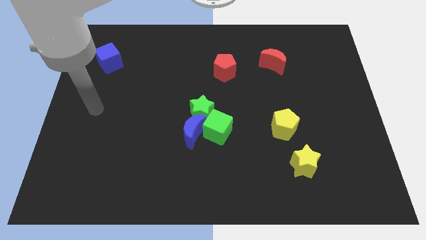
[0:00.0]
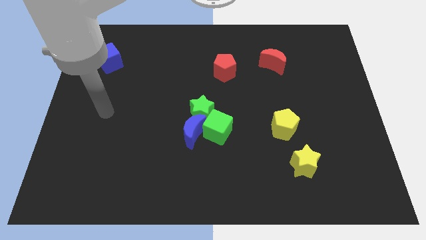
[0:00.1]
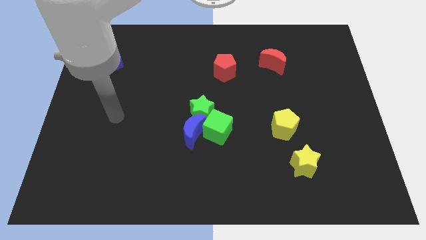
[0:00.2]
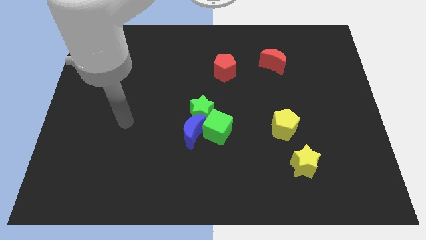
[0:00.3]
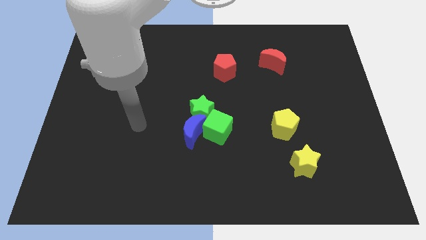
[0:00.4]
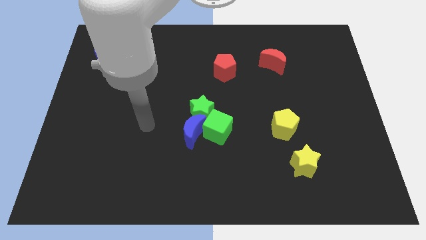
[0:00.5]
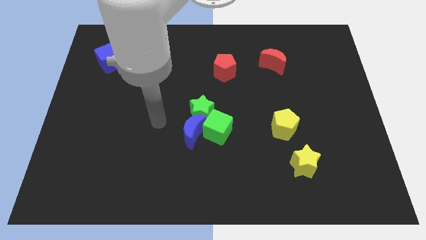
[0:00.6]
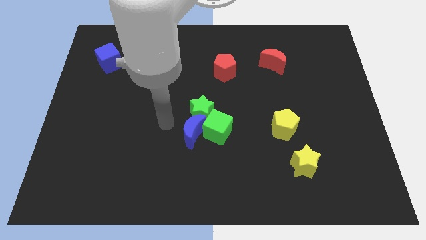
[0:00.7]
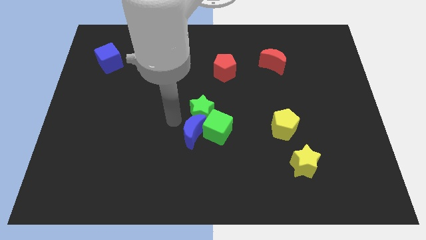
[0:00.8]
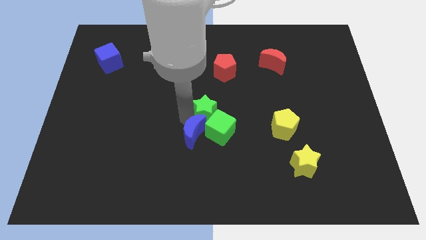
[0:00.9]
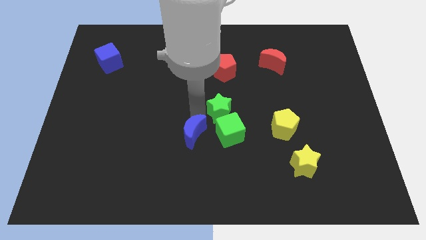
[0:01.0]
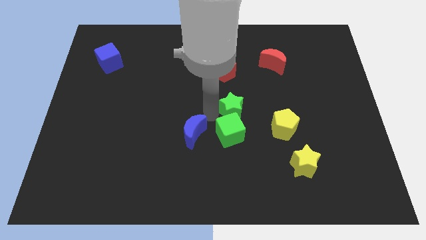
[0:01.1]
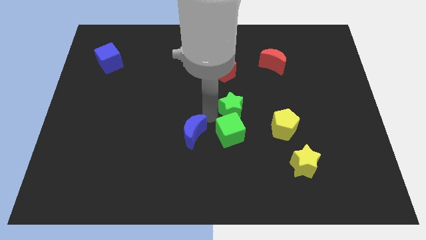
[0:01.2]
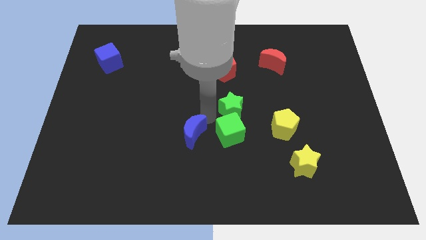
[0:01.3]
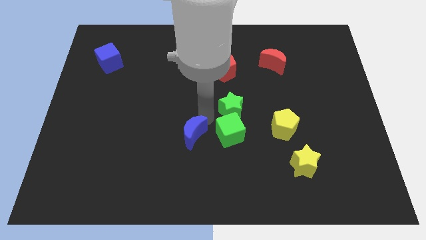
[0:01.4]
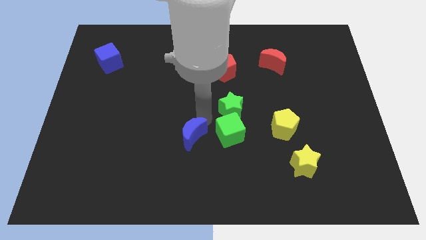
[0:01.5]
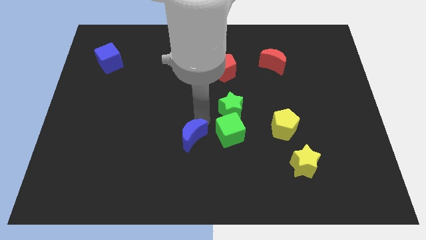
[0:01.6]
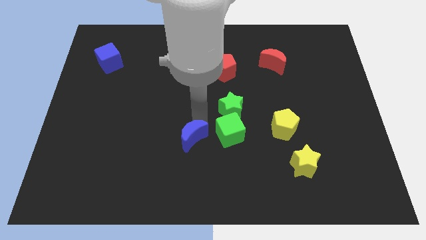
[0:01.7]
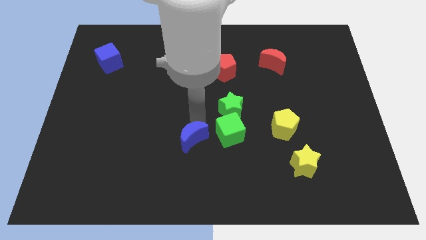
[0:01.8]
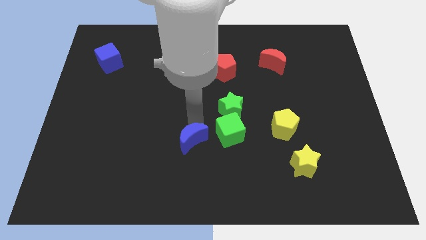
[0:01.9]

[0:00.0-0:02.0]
pull the blue moon apart from the green star and green cube

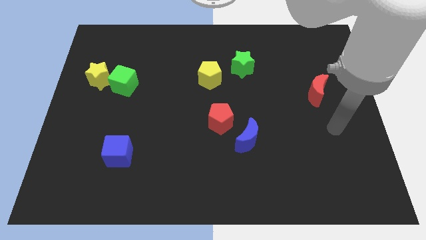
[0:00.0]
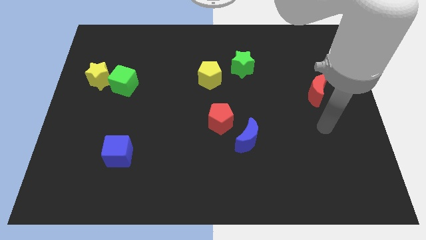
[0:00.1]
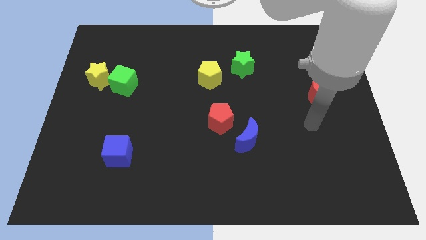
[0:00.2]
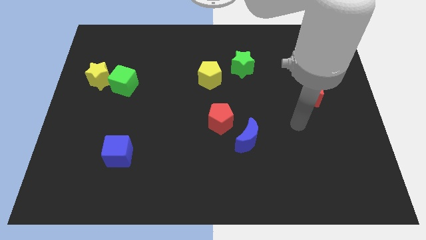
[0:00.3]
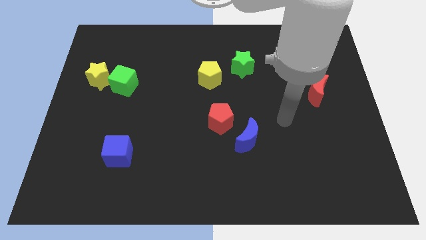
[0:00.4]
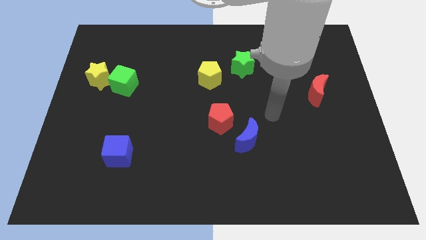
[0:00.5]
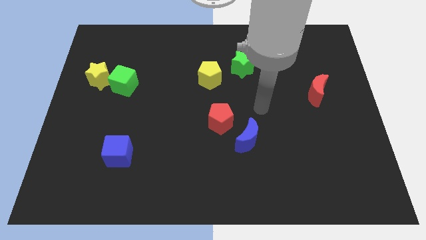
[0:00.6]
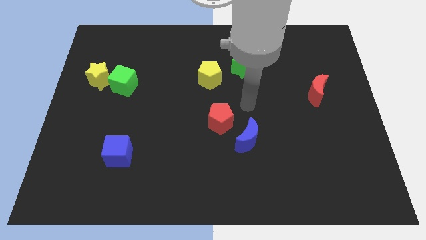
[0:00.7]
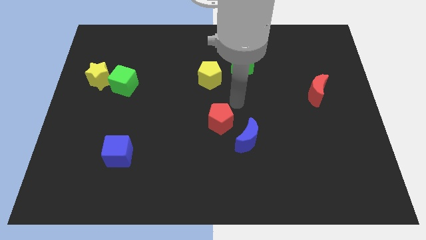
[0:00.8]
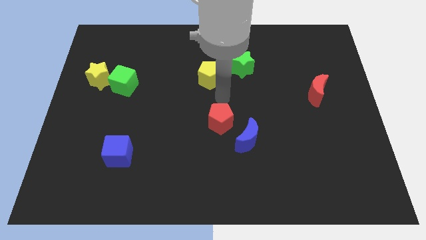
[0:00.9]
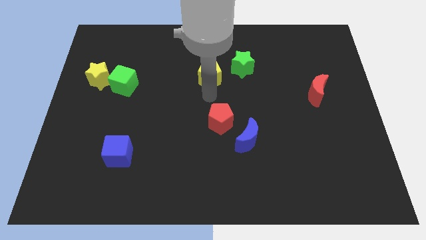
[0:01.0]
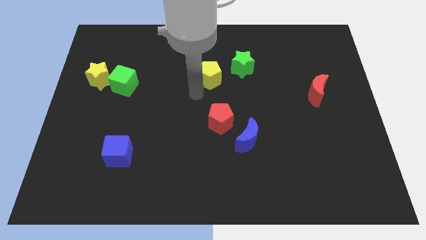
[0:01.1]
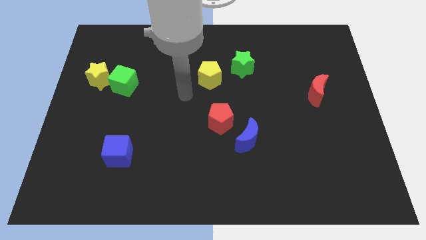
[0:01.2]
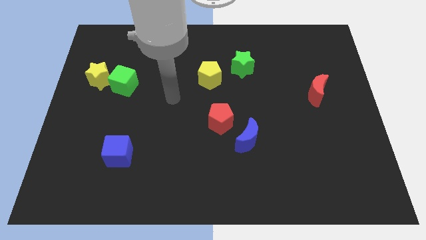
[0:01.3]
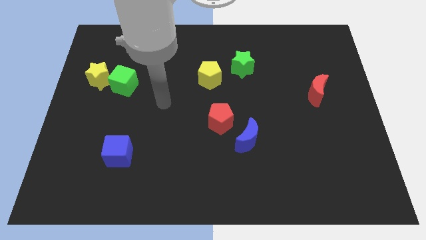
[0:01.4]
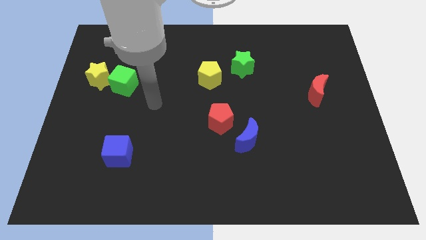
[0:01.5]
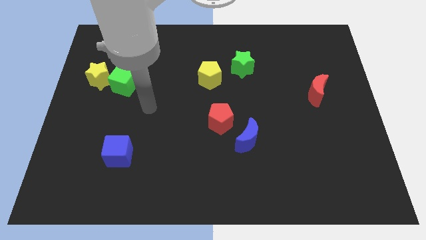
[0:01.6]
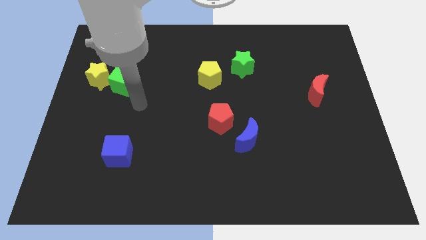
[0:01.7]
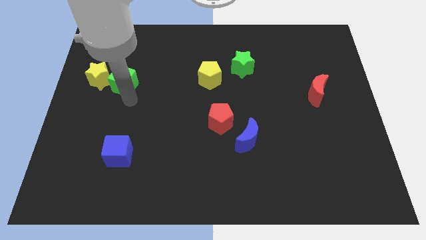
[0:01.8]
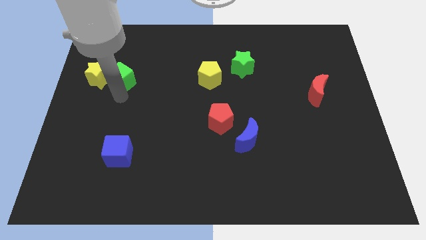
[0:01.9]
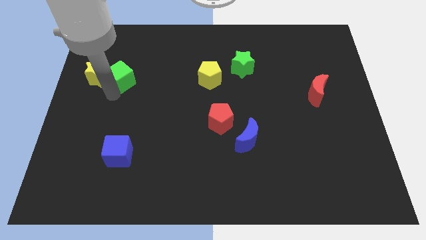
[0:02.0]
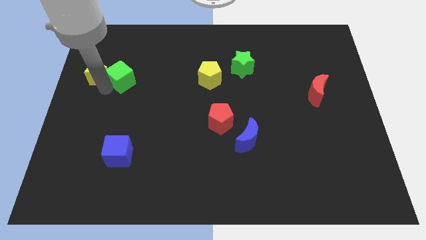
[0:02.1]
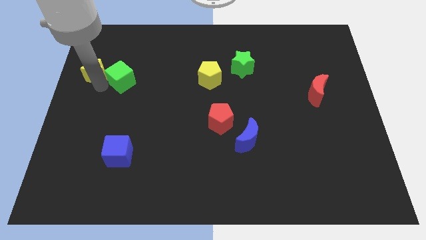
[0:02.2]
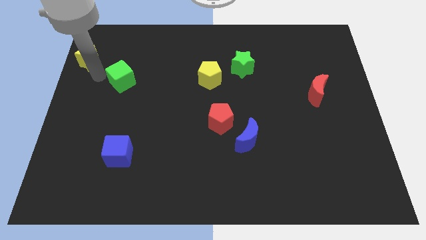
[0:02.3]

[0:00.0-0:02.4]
pull the green cube apart from the yellow star

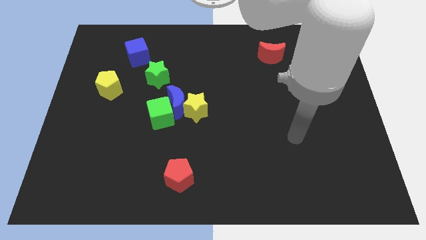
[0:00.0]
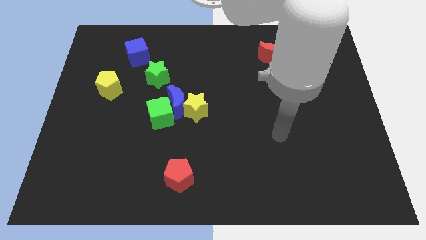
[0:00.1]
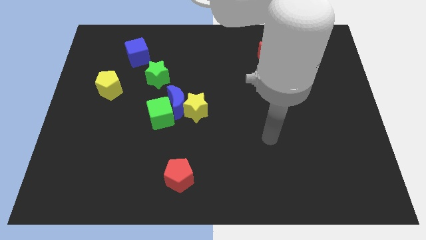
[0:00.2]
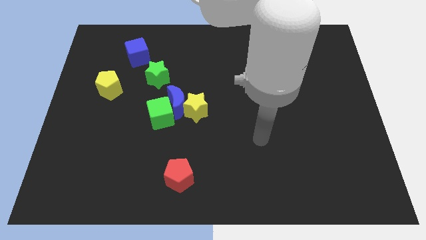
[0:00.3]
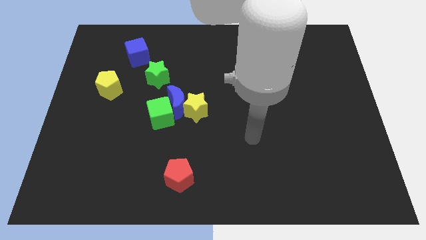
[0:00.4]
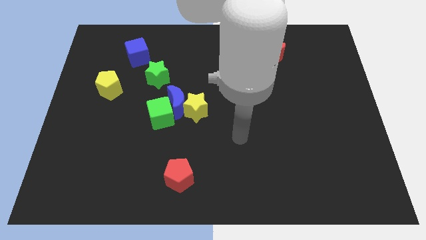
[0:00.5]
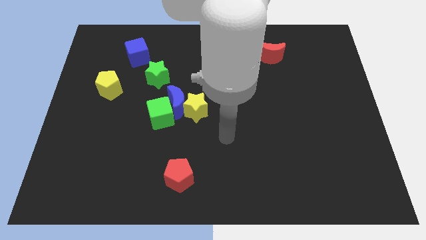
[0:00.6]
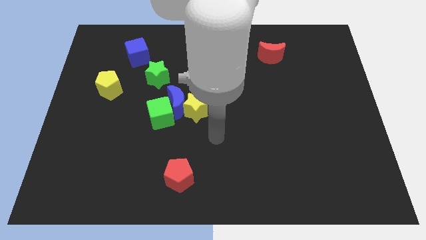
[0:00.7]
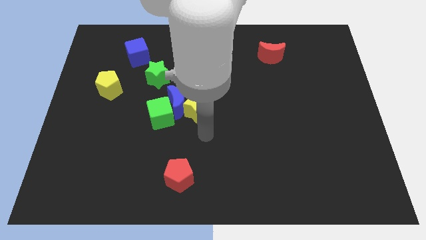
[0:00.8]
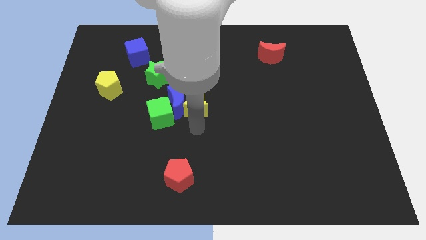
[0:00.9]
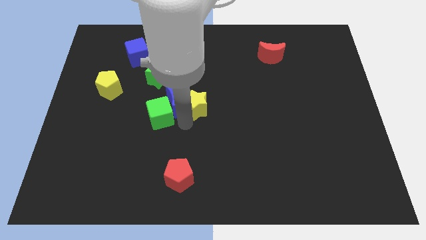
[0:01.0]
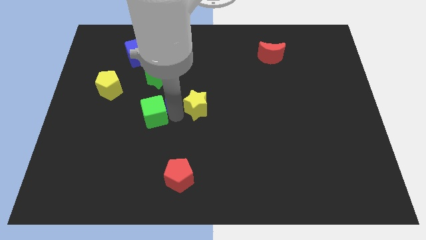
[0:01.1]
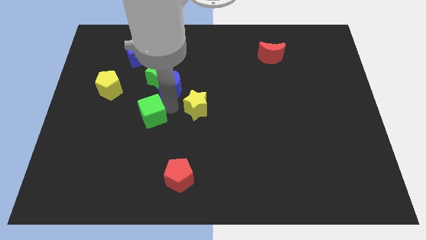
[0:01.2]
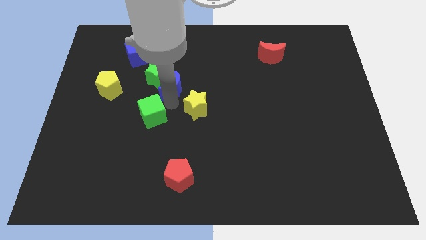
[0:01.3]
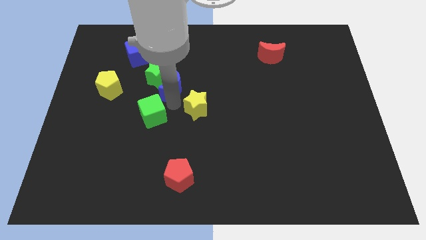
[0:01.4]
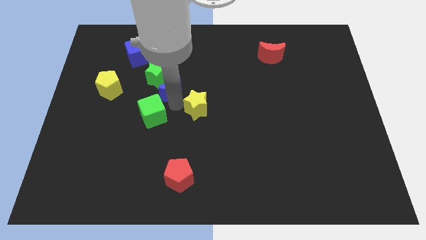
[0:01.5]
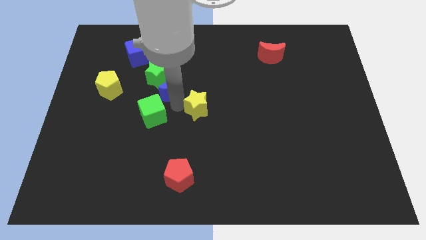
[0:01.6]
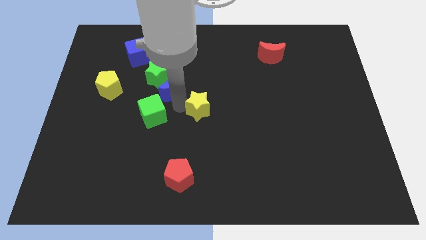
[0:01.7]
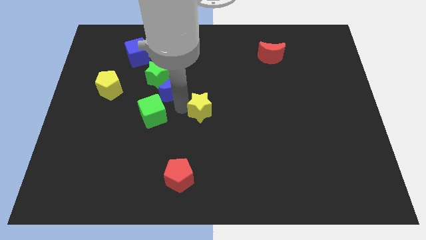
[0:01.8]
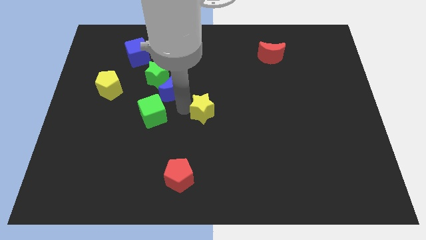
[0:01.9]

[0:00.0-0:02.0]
pull the yellow star apart from the blue moon and green cube

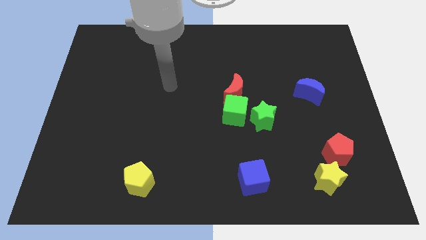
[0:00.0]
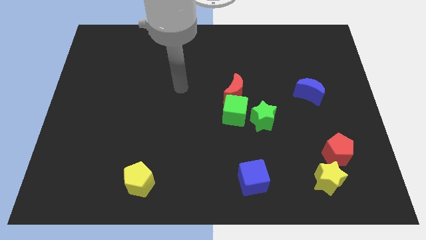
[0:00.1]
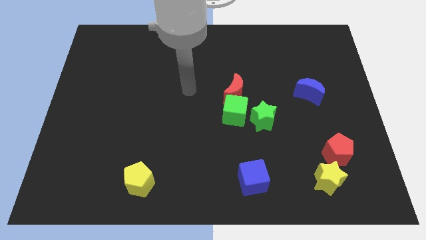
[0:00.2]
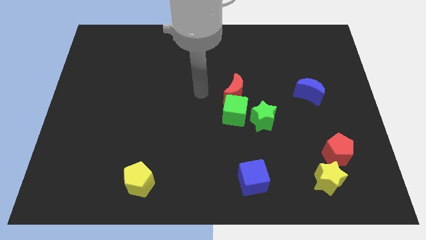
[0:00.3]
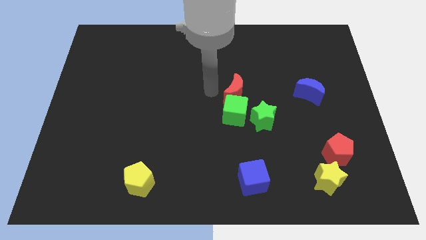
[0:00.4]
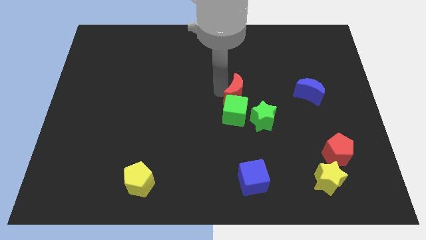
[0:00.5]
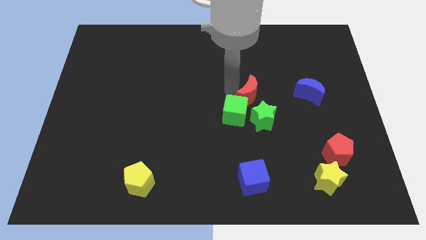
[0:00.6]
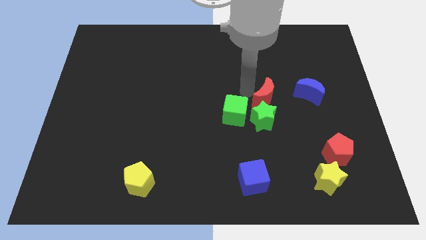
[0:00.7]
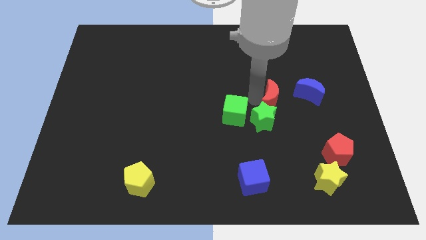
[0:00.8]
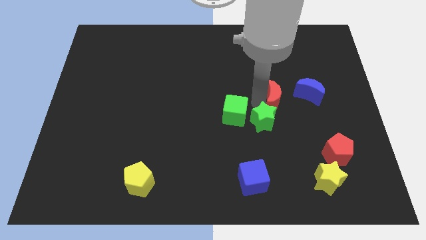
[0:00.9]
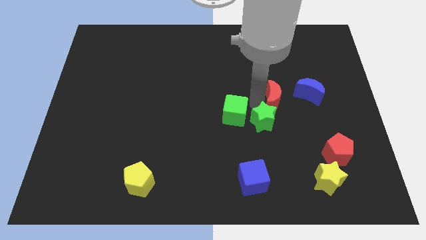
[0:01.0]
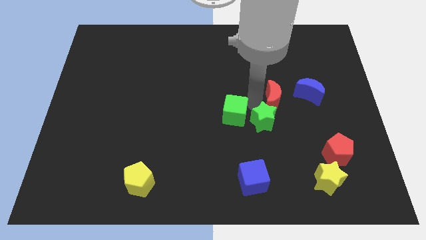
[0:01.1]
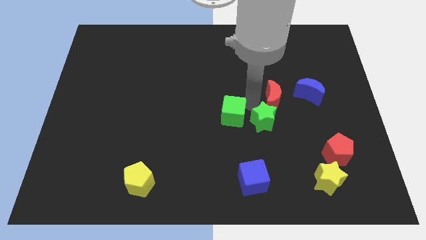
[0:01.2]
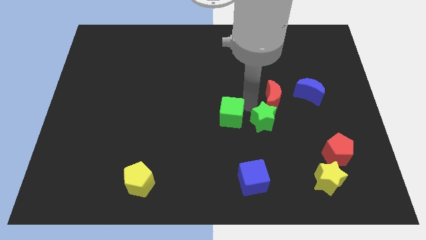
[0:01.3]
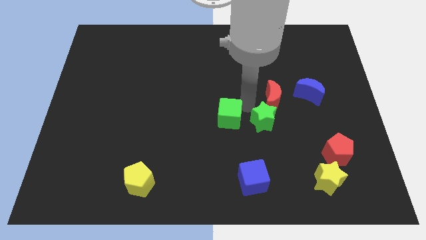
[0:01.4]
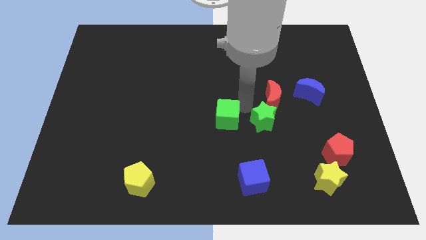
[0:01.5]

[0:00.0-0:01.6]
move the green cube away from the red moon and green star

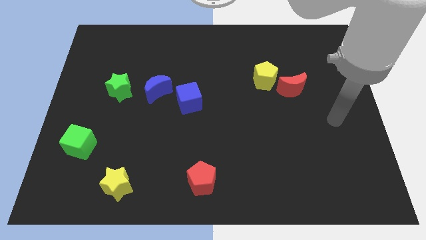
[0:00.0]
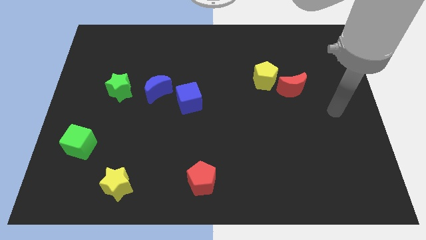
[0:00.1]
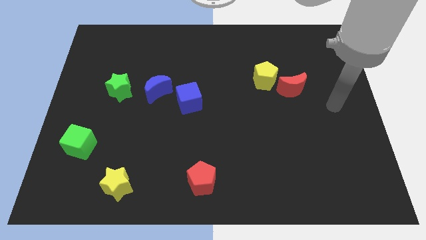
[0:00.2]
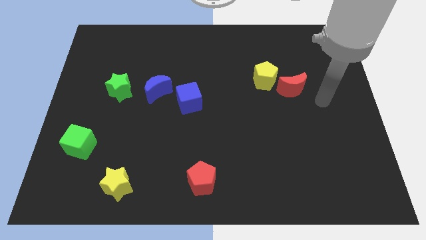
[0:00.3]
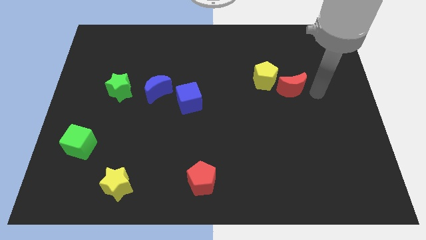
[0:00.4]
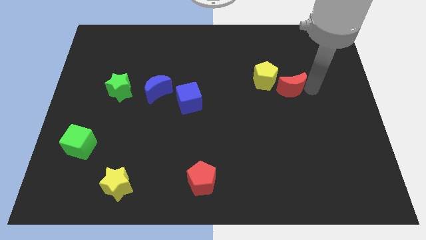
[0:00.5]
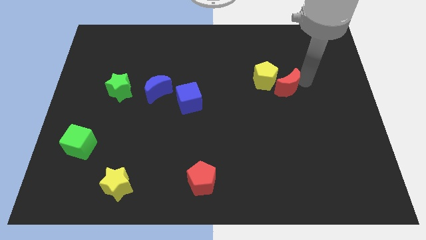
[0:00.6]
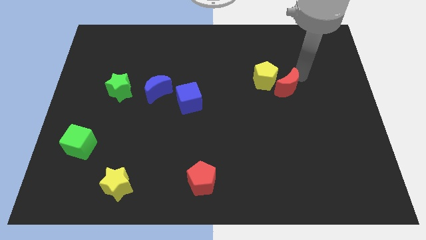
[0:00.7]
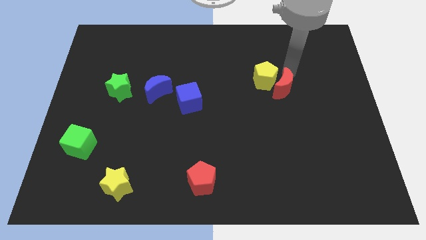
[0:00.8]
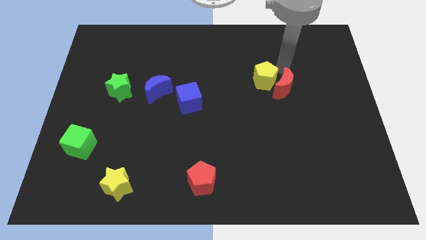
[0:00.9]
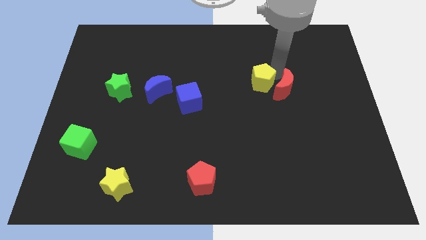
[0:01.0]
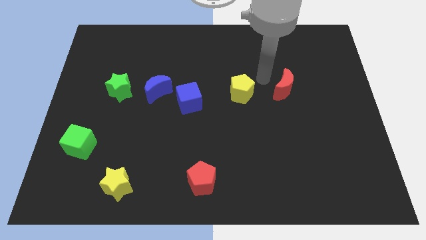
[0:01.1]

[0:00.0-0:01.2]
pull the red moon apart from the yellow pentagon
